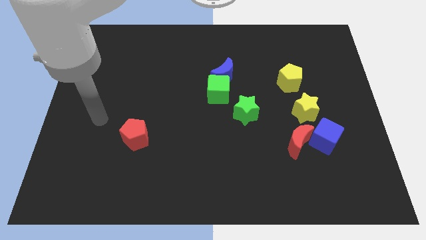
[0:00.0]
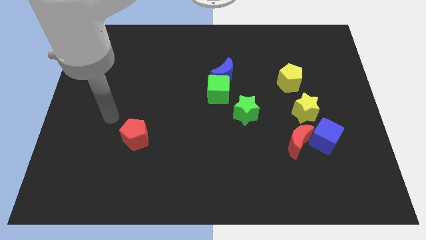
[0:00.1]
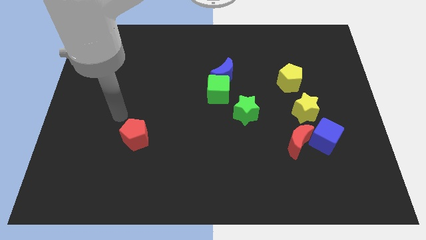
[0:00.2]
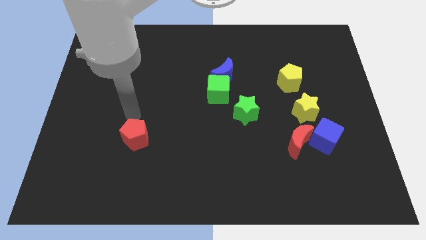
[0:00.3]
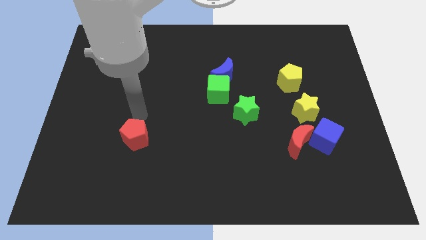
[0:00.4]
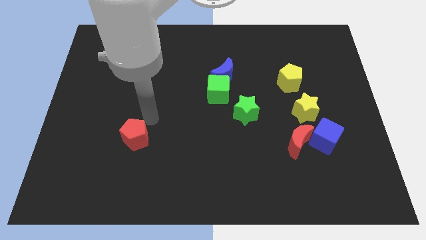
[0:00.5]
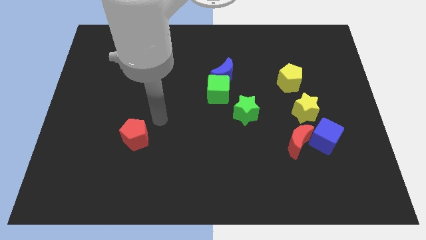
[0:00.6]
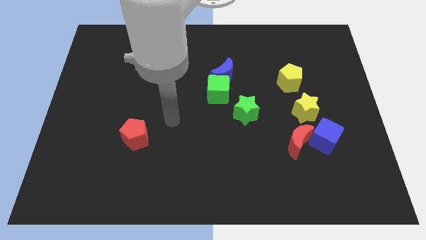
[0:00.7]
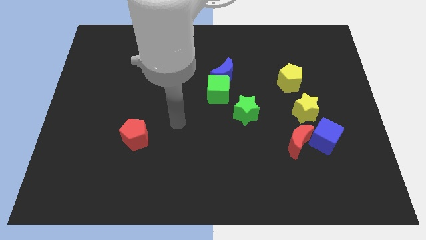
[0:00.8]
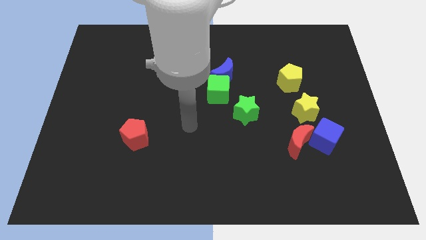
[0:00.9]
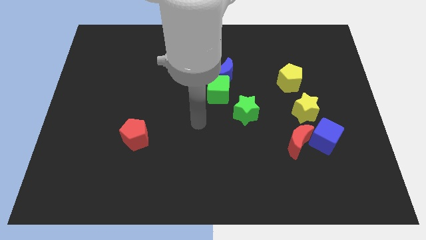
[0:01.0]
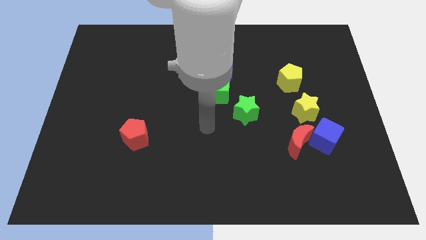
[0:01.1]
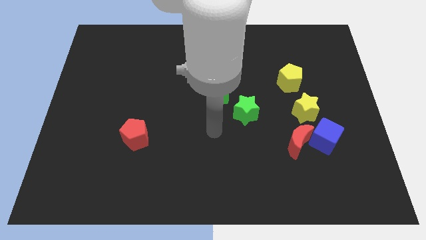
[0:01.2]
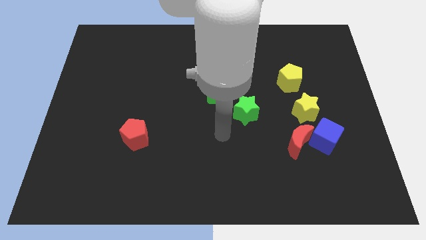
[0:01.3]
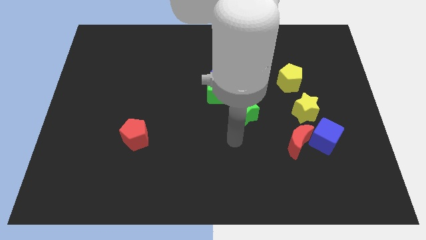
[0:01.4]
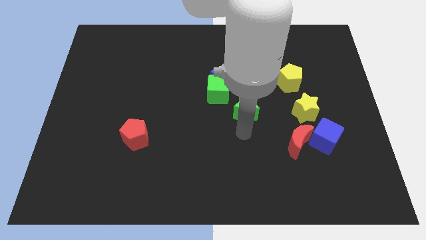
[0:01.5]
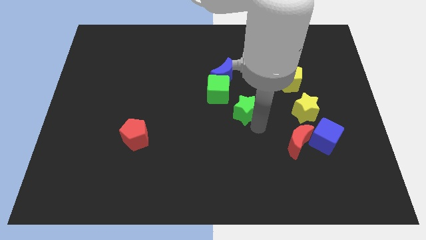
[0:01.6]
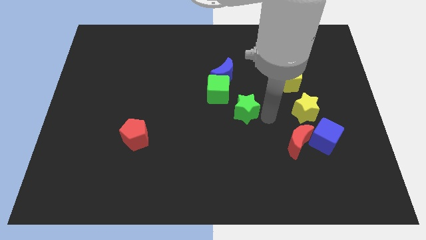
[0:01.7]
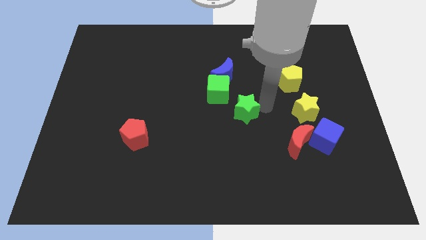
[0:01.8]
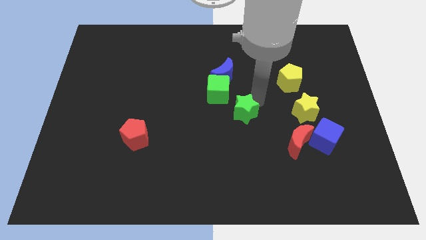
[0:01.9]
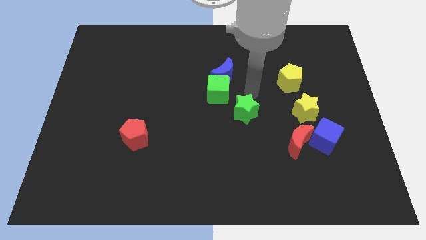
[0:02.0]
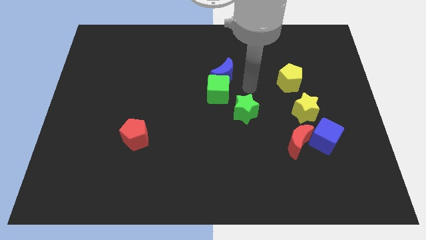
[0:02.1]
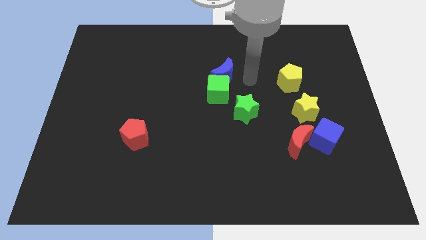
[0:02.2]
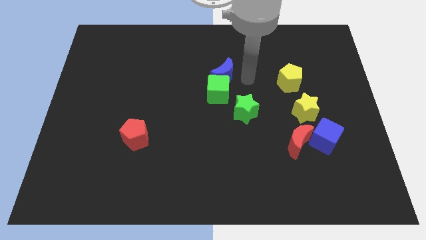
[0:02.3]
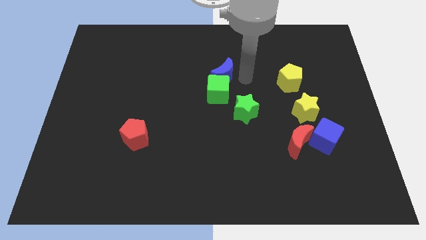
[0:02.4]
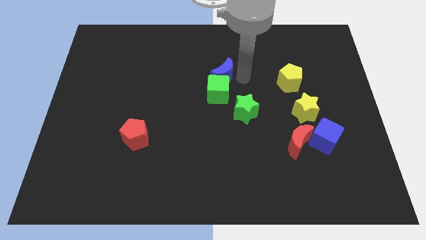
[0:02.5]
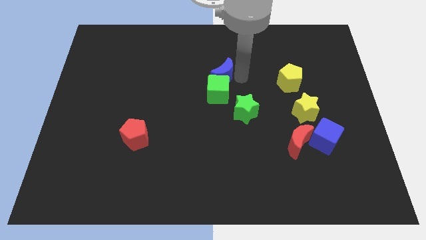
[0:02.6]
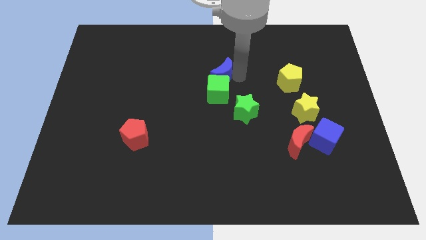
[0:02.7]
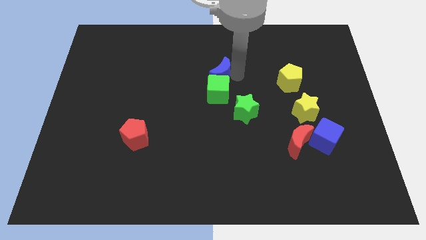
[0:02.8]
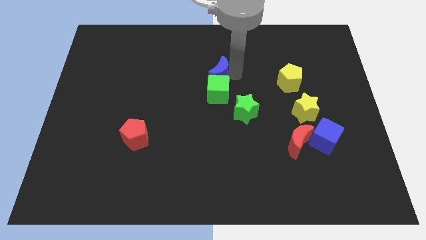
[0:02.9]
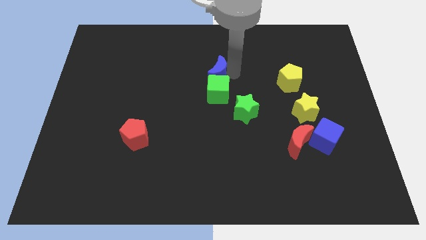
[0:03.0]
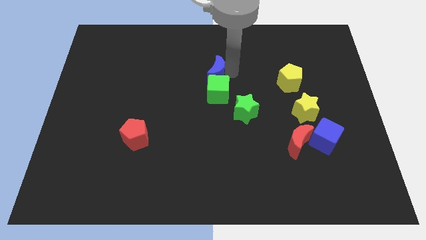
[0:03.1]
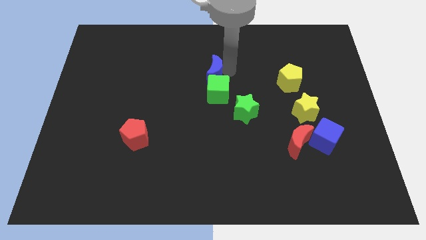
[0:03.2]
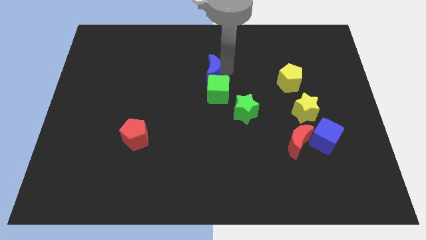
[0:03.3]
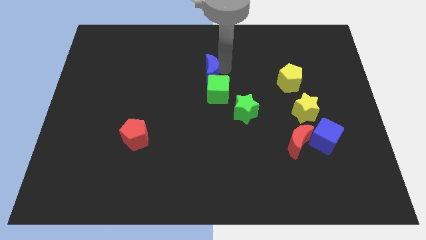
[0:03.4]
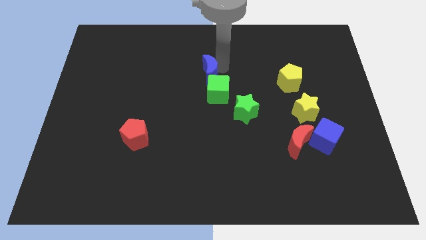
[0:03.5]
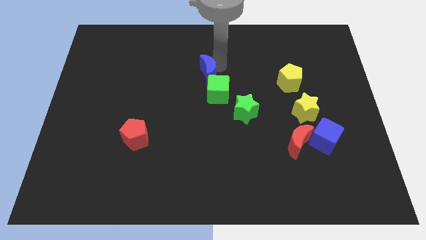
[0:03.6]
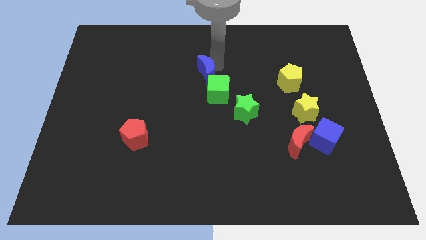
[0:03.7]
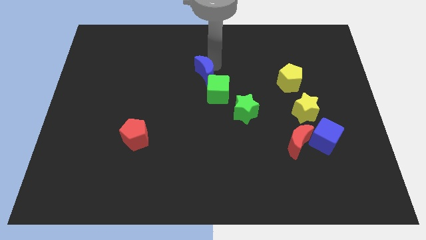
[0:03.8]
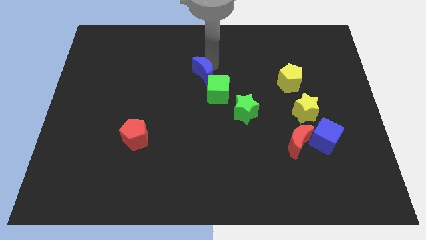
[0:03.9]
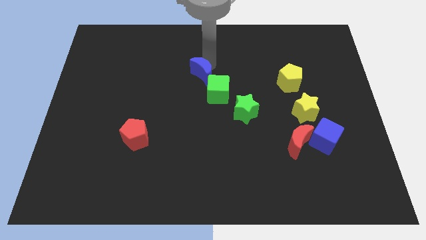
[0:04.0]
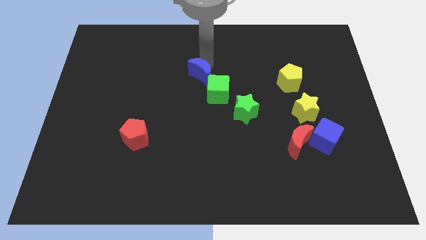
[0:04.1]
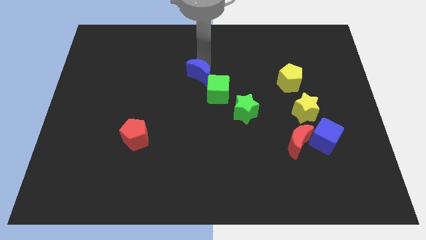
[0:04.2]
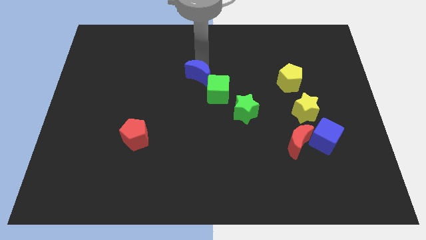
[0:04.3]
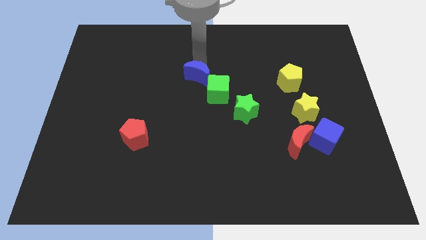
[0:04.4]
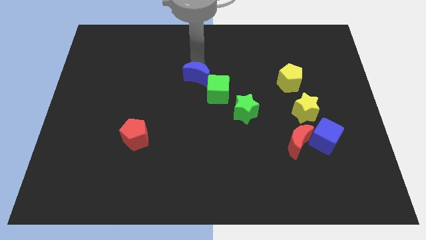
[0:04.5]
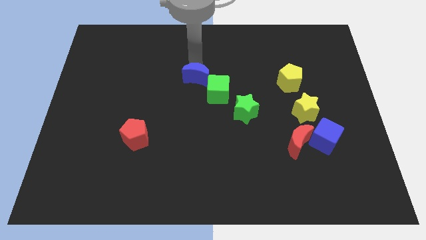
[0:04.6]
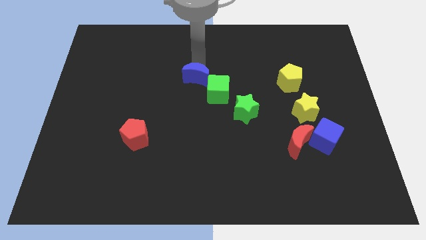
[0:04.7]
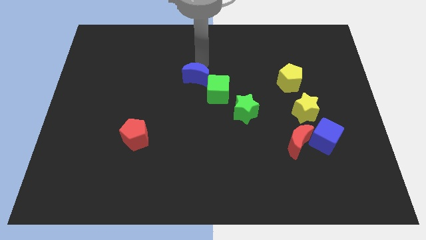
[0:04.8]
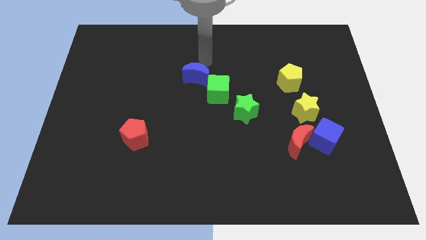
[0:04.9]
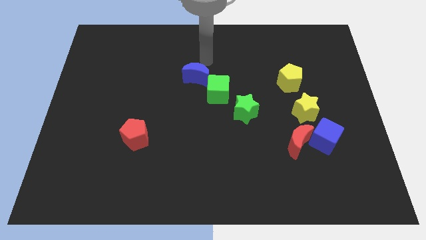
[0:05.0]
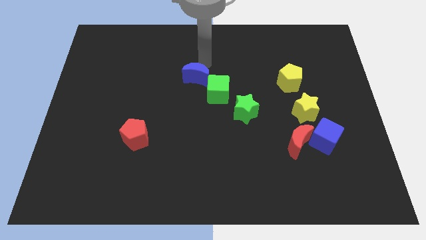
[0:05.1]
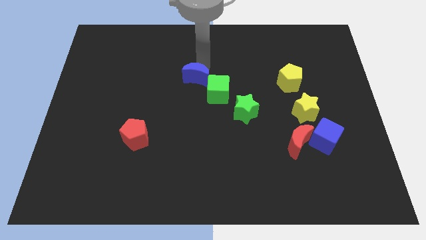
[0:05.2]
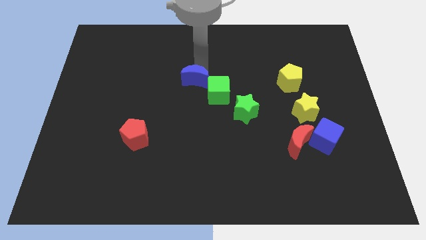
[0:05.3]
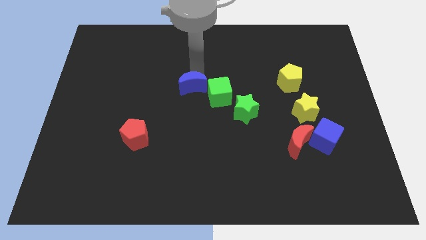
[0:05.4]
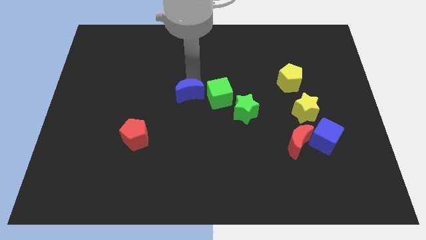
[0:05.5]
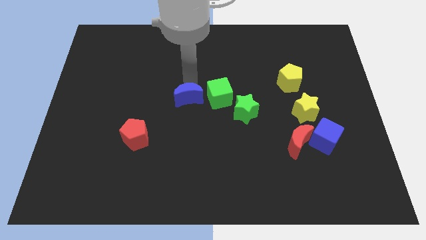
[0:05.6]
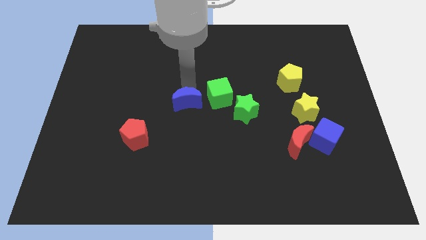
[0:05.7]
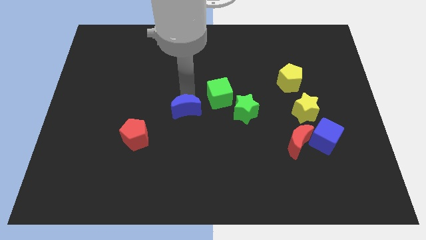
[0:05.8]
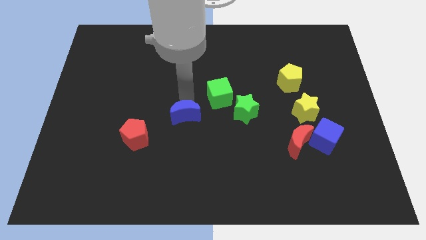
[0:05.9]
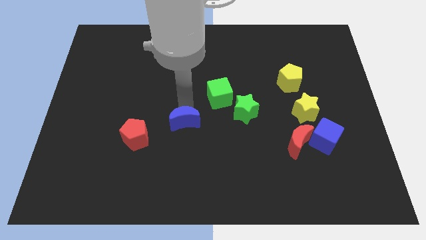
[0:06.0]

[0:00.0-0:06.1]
push the blue moon right of the red pentagon
